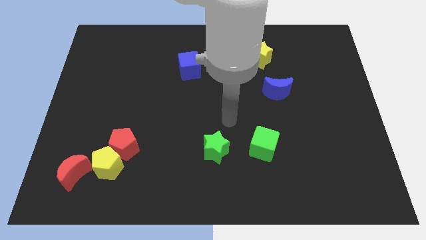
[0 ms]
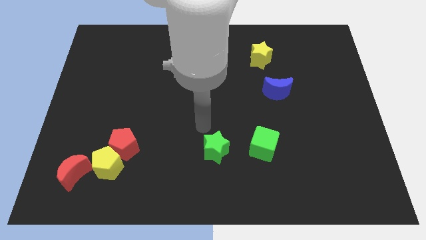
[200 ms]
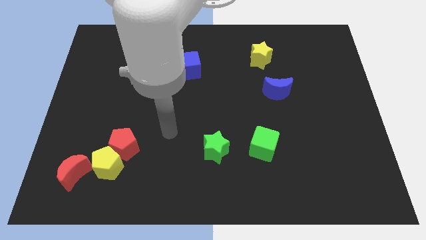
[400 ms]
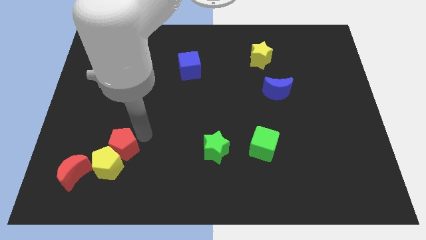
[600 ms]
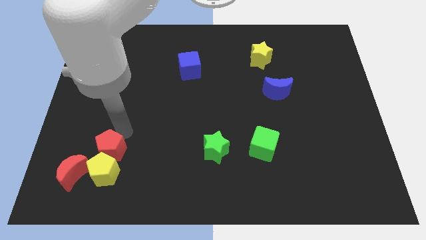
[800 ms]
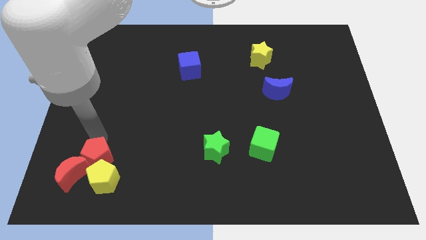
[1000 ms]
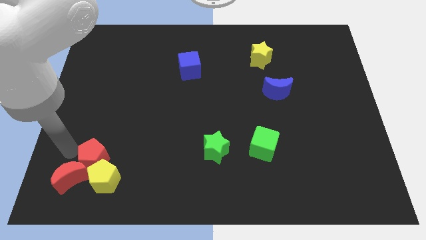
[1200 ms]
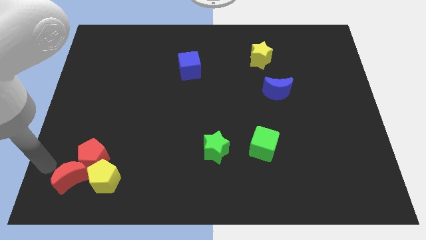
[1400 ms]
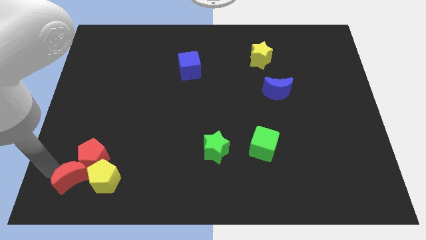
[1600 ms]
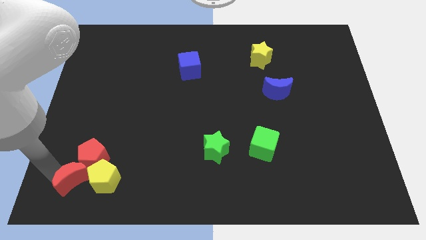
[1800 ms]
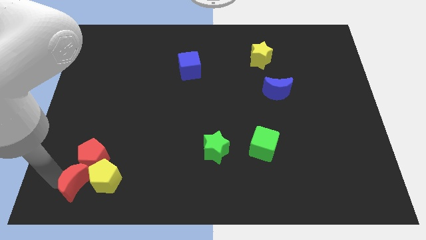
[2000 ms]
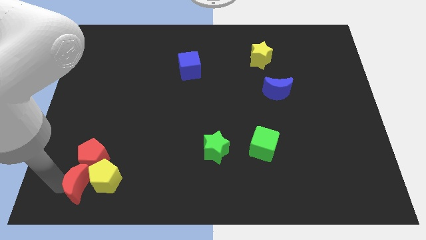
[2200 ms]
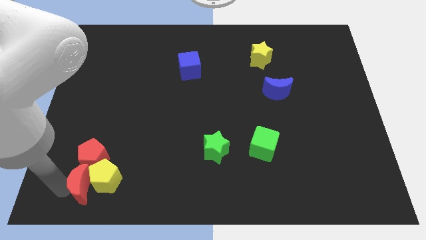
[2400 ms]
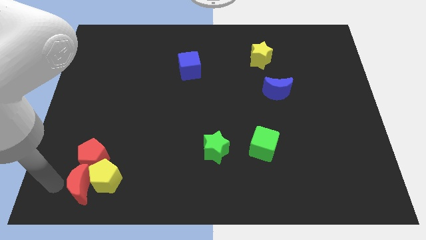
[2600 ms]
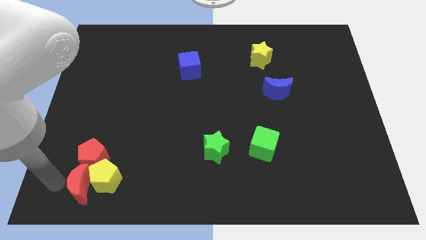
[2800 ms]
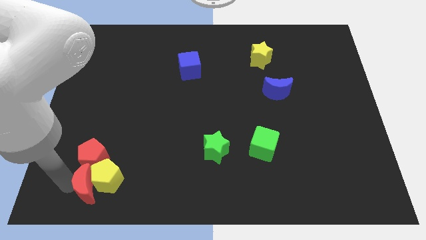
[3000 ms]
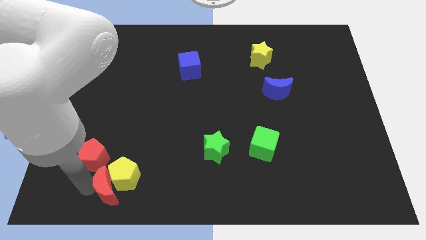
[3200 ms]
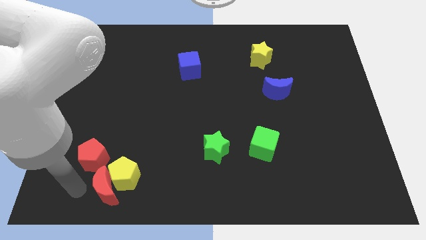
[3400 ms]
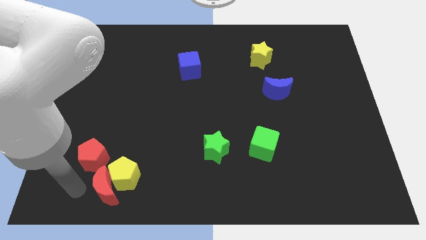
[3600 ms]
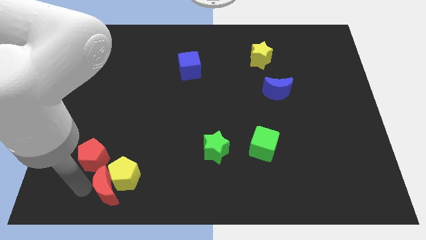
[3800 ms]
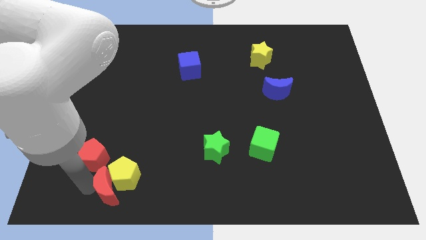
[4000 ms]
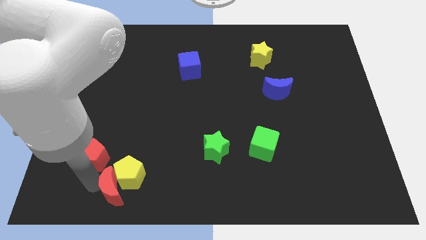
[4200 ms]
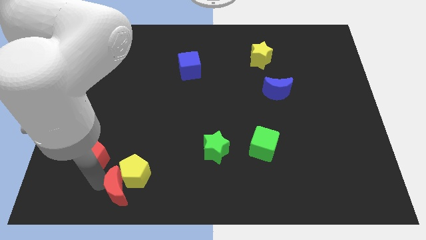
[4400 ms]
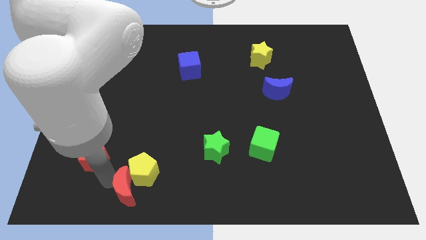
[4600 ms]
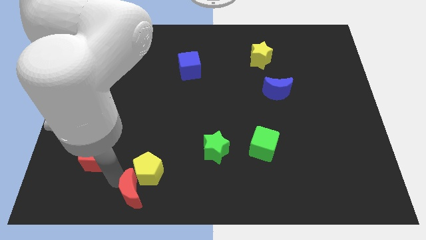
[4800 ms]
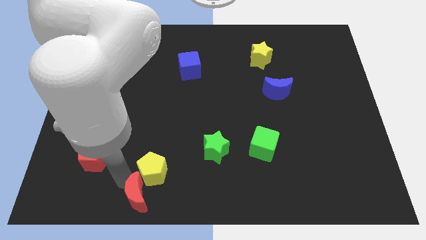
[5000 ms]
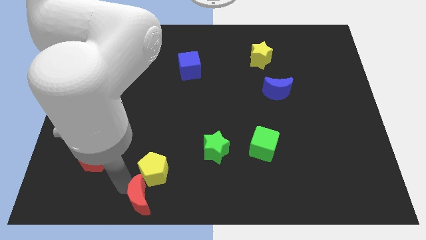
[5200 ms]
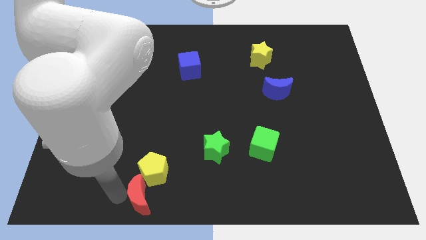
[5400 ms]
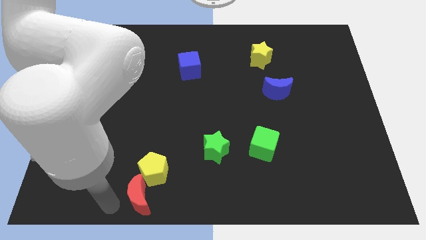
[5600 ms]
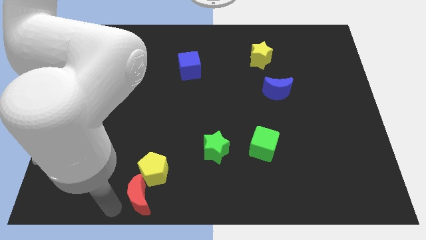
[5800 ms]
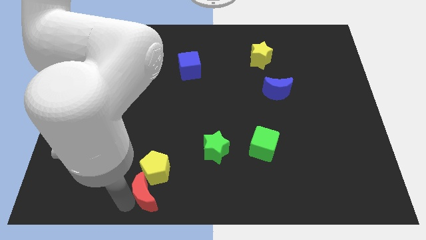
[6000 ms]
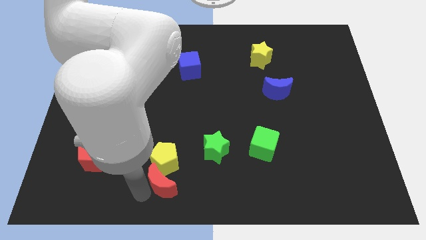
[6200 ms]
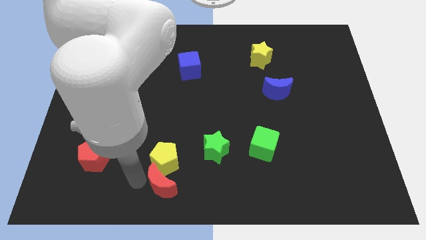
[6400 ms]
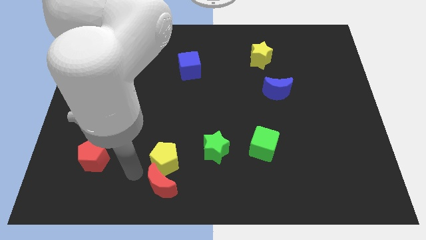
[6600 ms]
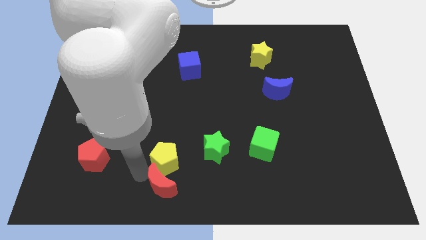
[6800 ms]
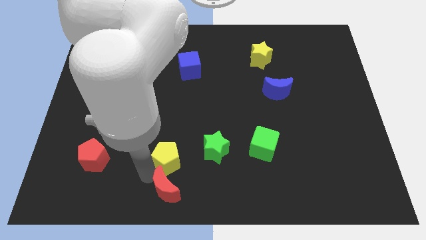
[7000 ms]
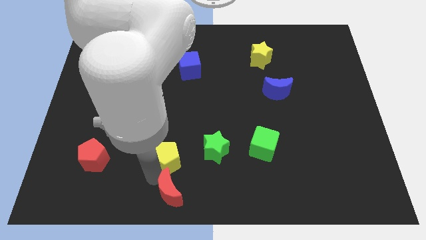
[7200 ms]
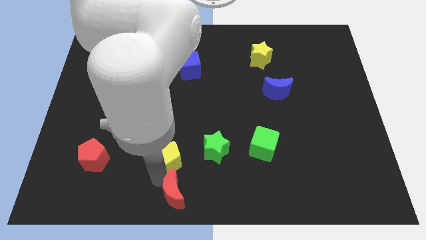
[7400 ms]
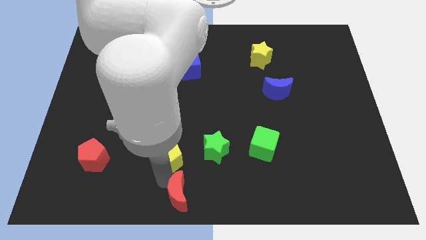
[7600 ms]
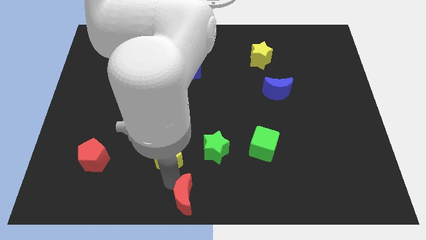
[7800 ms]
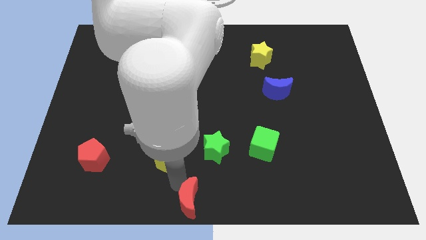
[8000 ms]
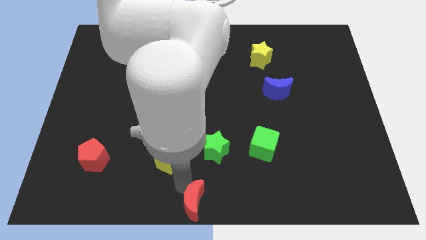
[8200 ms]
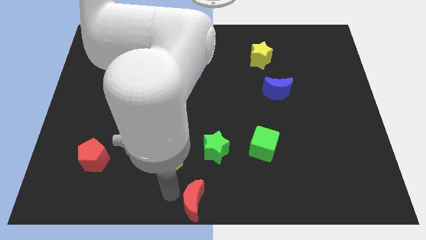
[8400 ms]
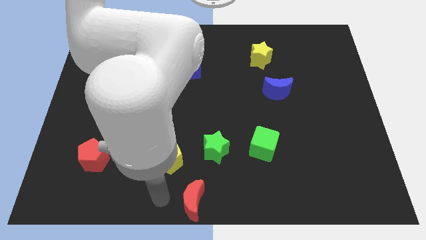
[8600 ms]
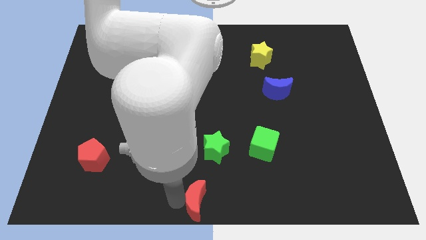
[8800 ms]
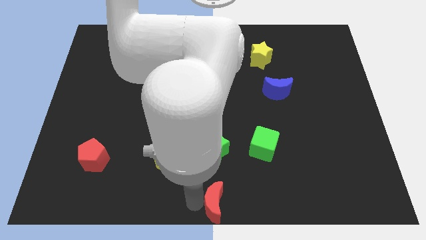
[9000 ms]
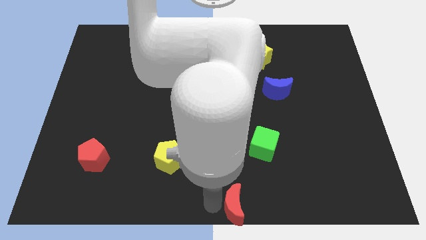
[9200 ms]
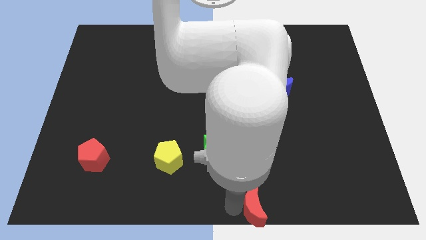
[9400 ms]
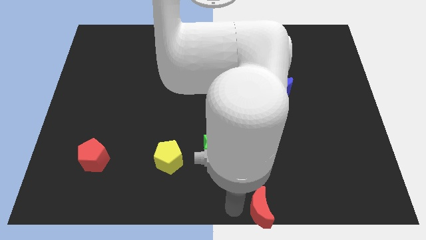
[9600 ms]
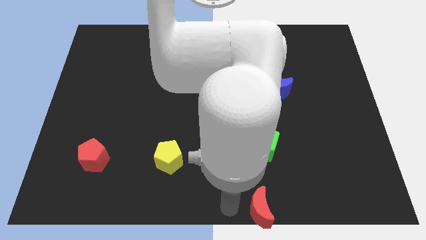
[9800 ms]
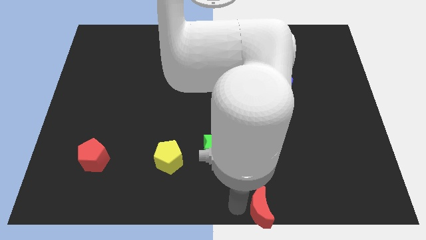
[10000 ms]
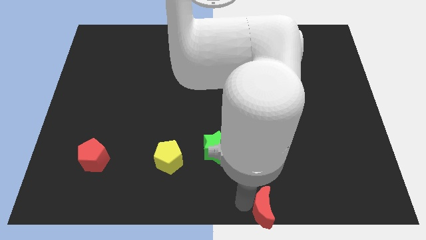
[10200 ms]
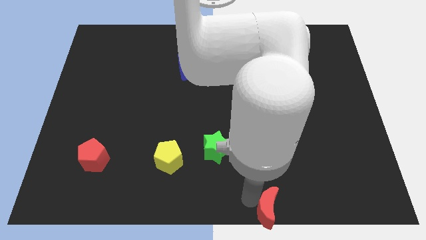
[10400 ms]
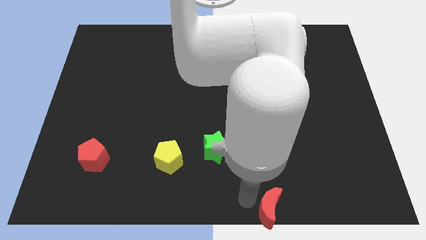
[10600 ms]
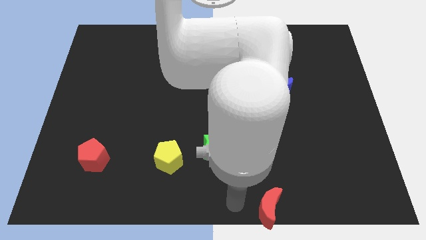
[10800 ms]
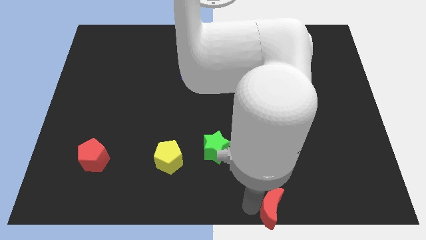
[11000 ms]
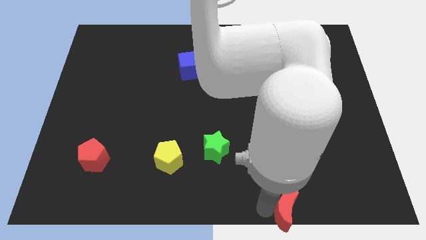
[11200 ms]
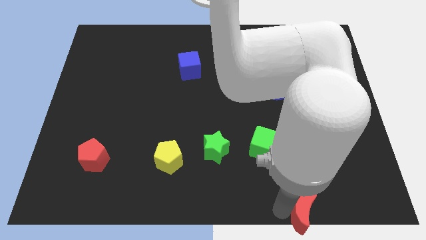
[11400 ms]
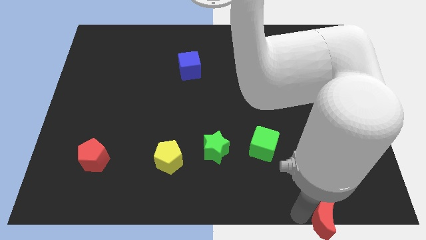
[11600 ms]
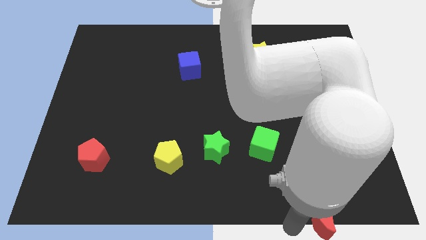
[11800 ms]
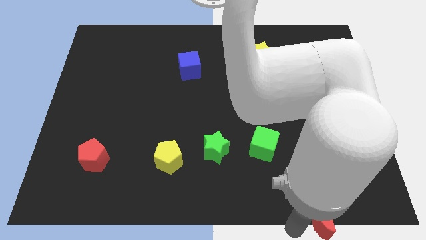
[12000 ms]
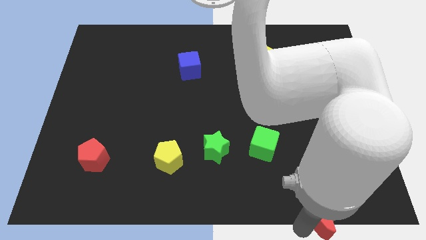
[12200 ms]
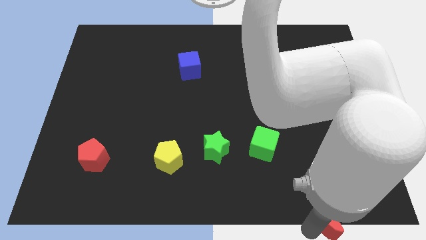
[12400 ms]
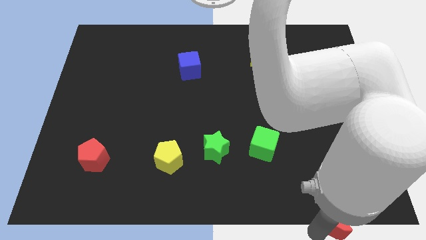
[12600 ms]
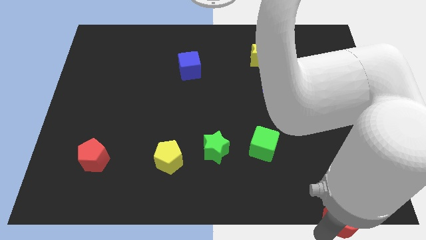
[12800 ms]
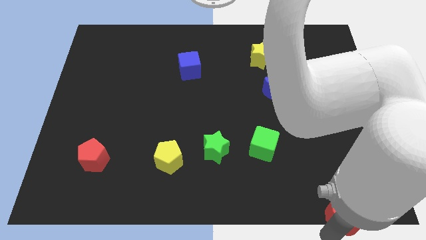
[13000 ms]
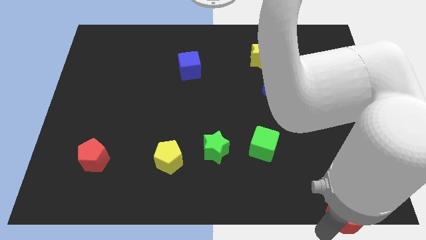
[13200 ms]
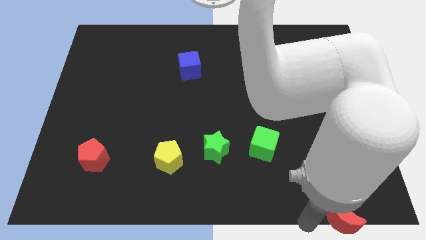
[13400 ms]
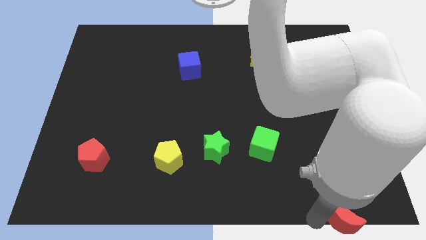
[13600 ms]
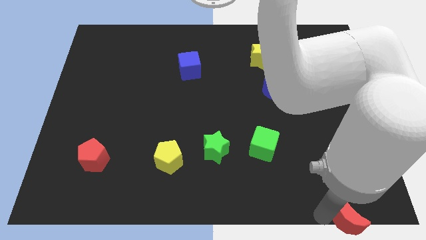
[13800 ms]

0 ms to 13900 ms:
push the red moon to the bottom right

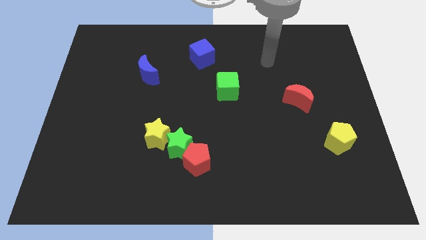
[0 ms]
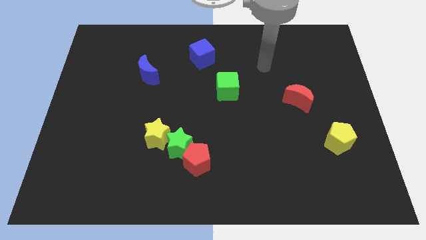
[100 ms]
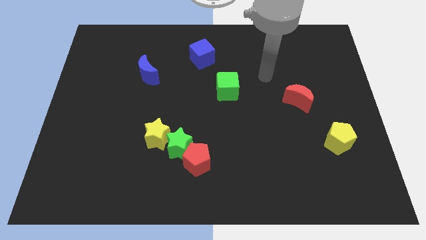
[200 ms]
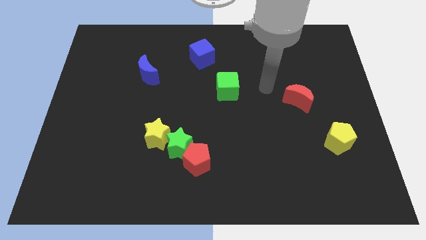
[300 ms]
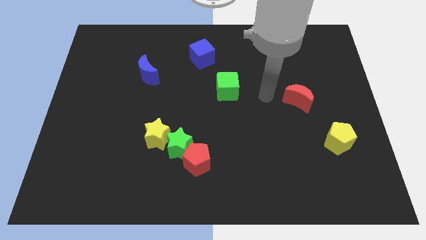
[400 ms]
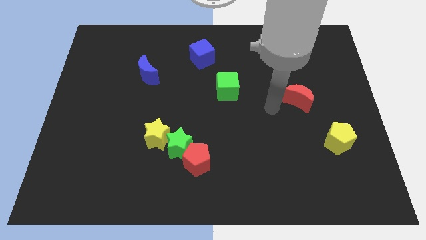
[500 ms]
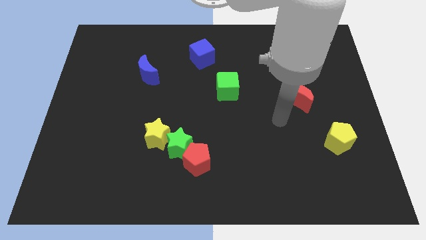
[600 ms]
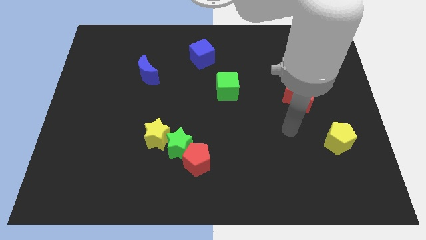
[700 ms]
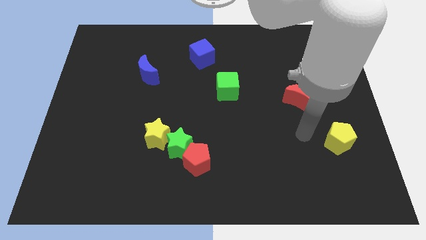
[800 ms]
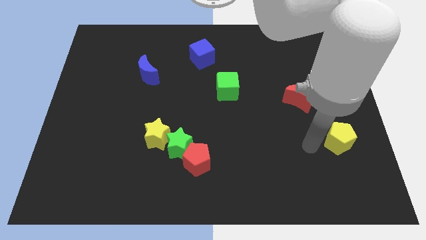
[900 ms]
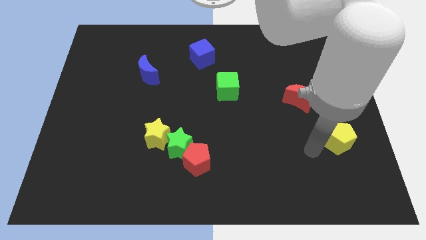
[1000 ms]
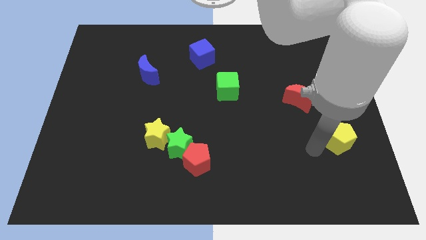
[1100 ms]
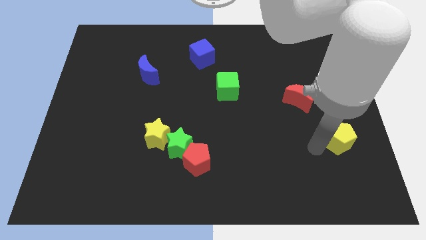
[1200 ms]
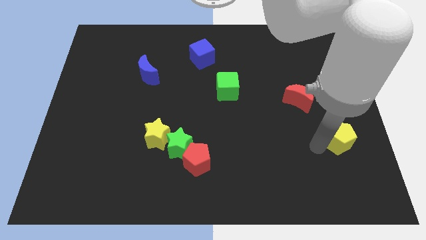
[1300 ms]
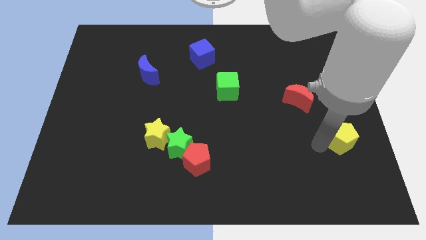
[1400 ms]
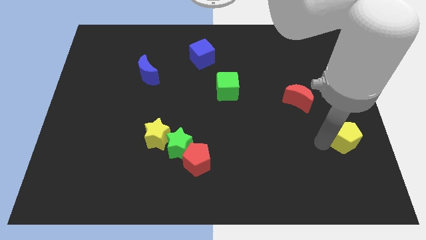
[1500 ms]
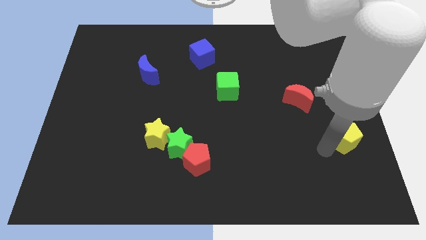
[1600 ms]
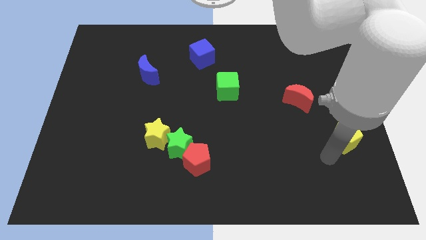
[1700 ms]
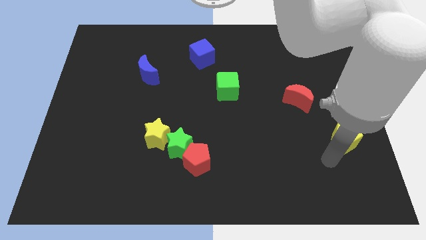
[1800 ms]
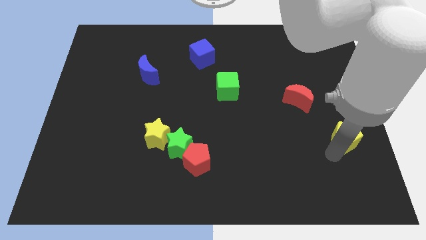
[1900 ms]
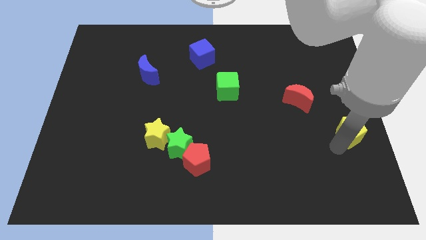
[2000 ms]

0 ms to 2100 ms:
put the yellow pentagon to the right side
